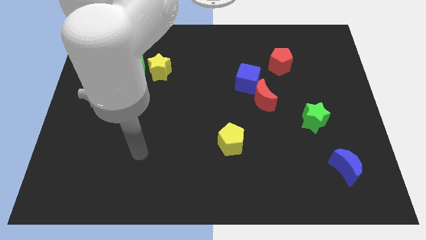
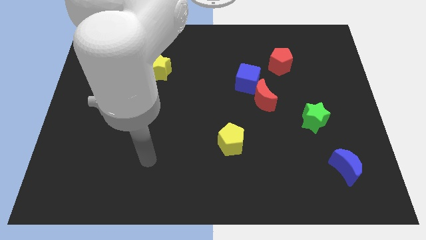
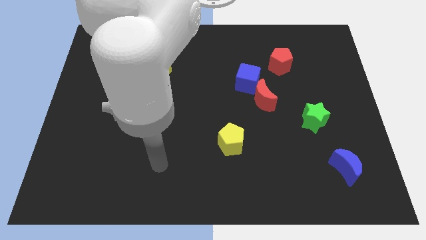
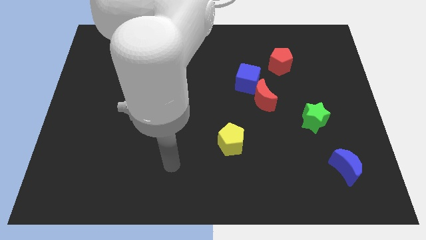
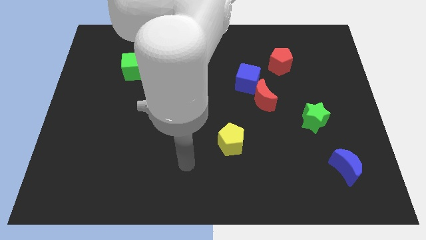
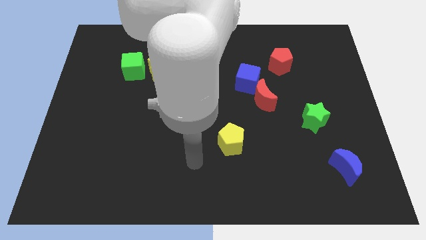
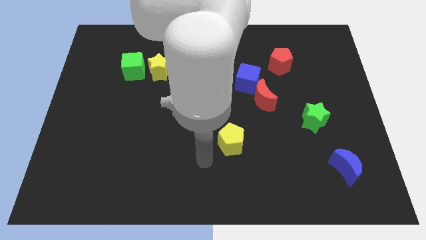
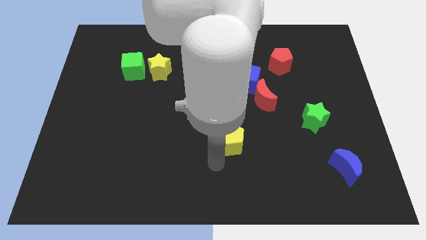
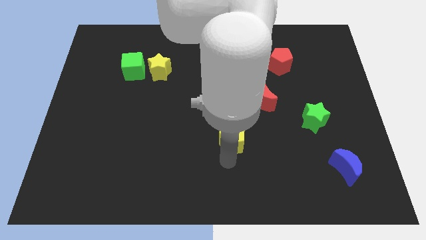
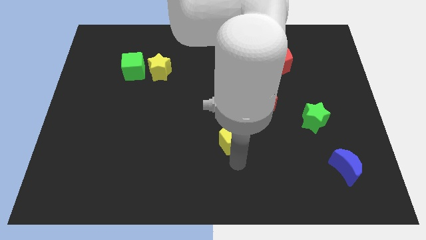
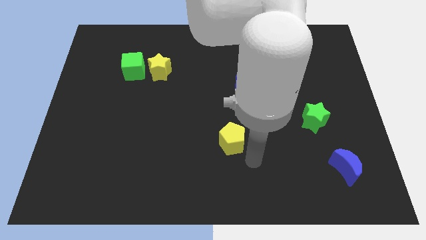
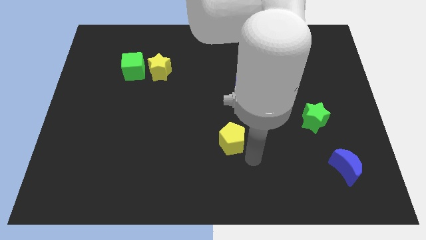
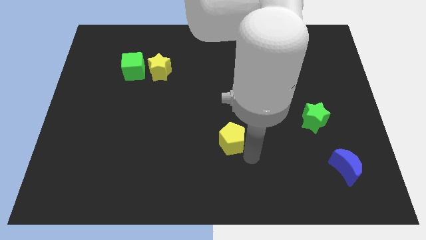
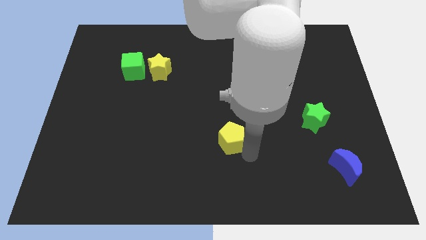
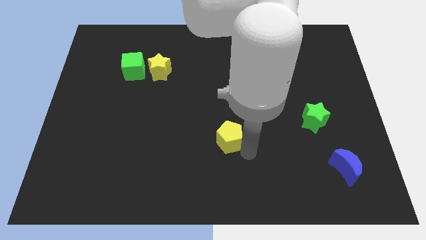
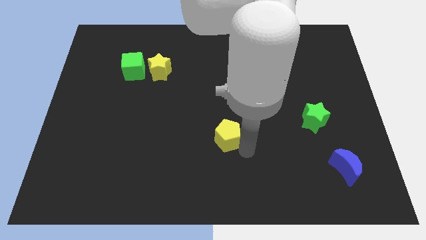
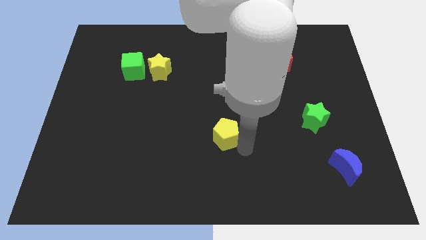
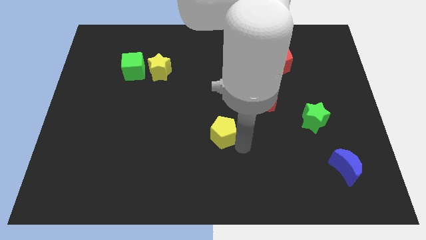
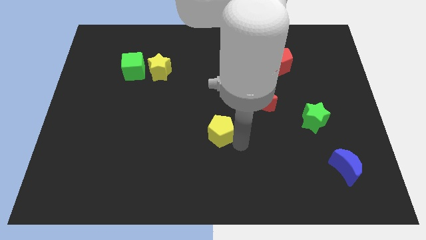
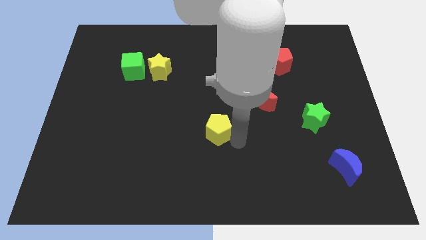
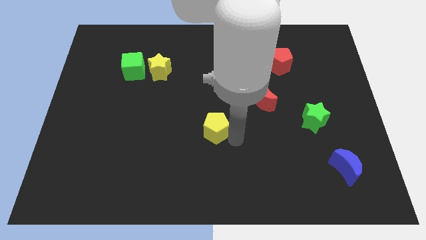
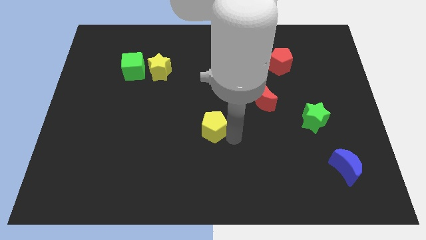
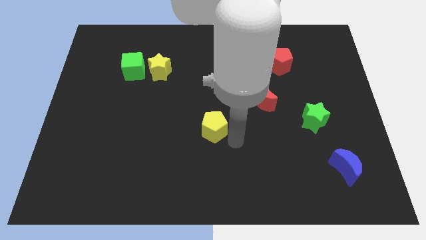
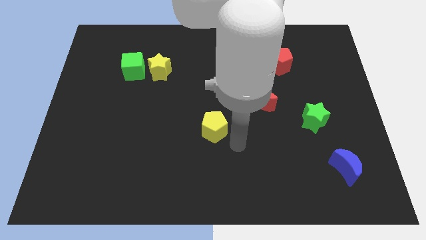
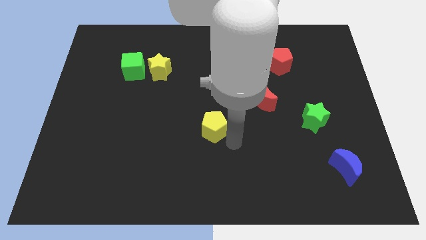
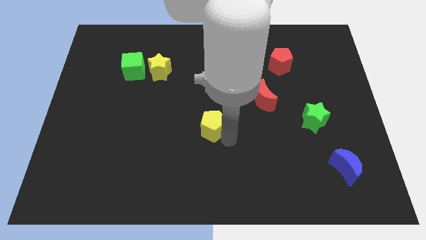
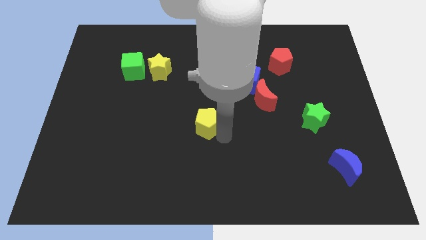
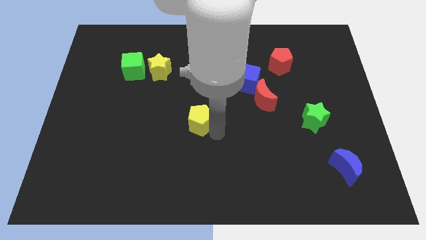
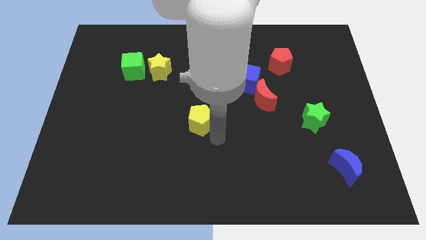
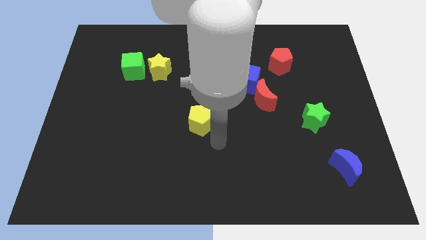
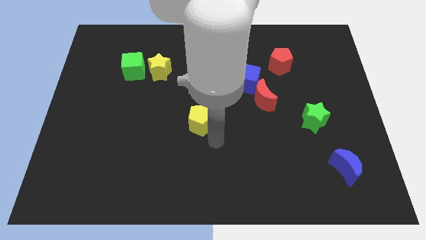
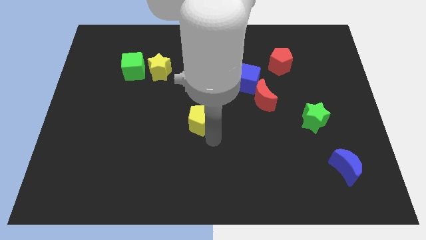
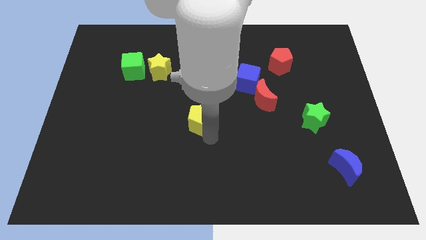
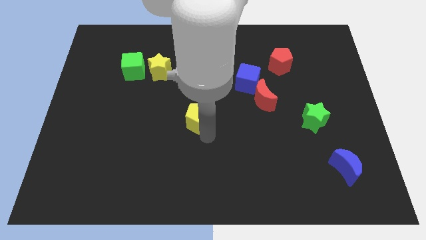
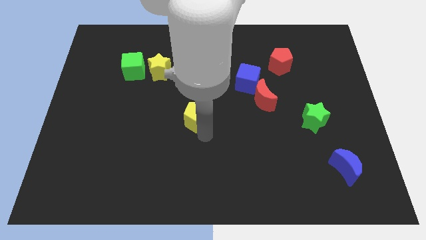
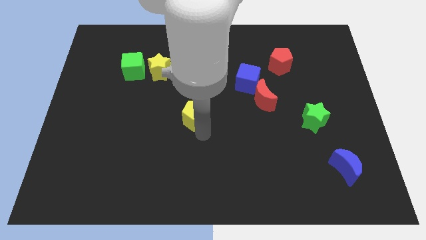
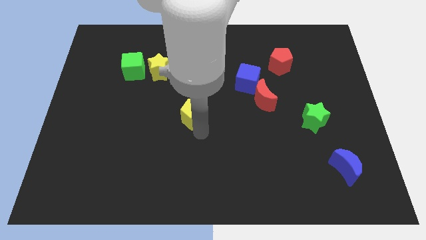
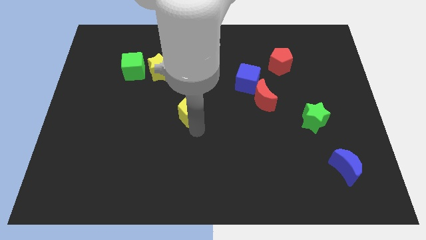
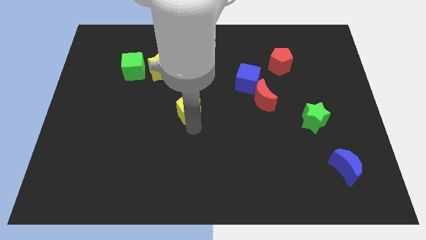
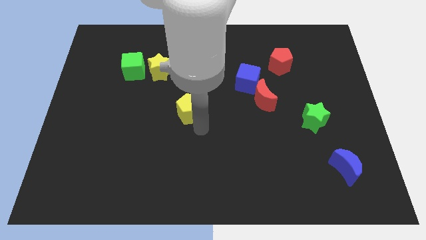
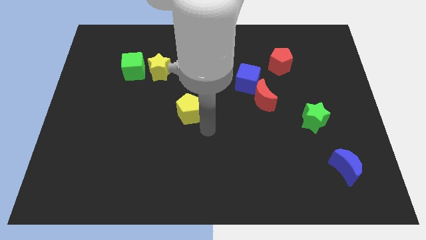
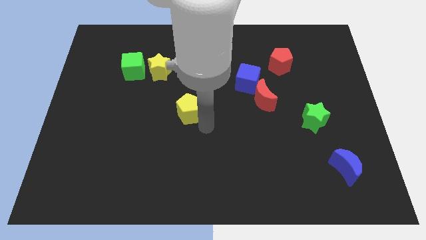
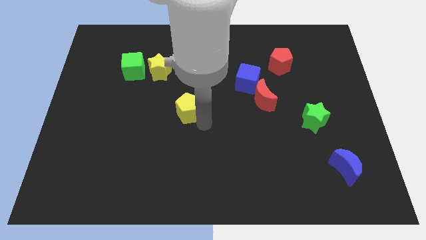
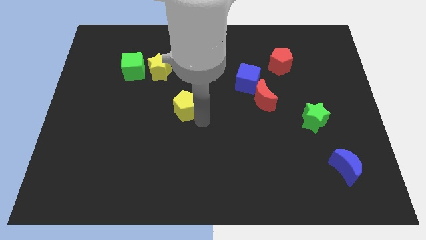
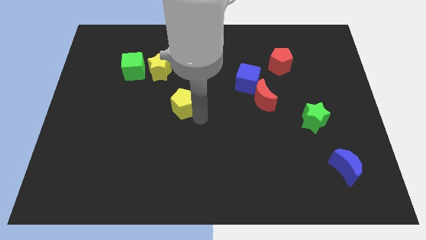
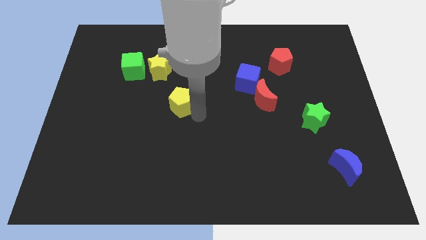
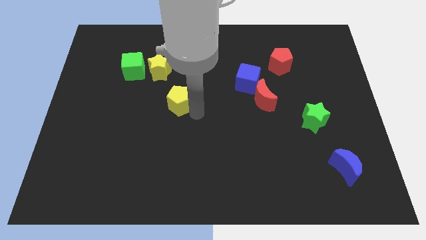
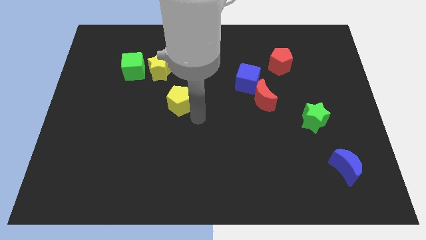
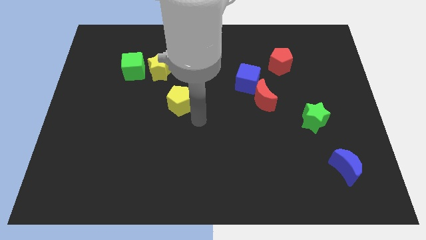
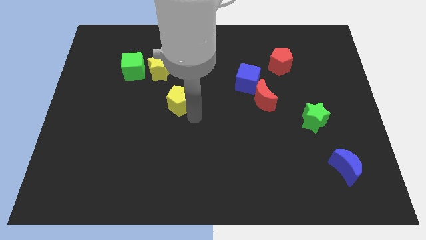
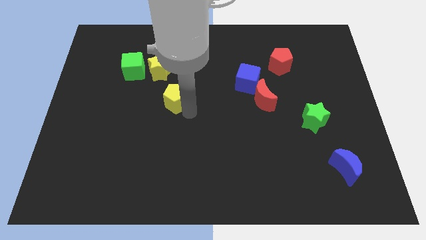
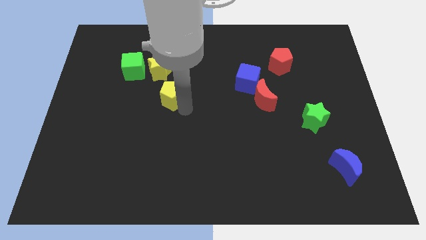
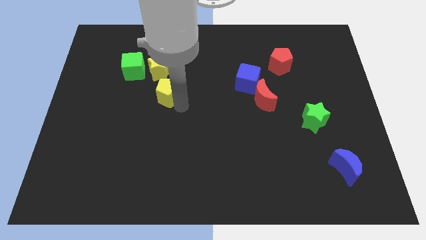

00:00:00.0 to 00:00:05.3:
move the yellow pentagon to the bottom right side of the green cube

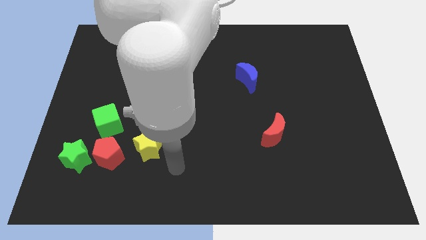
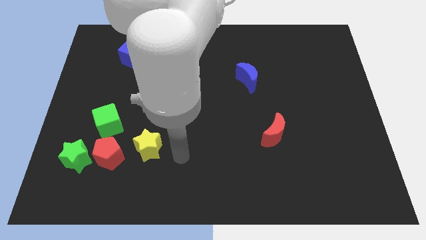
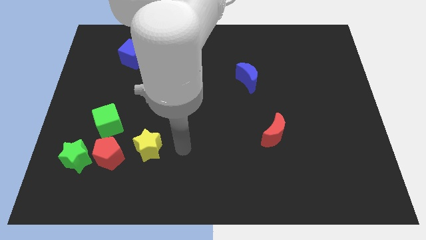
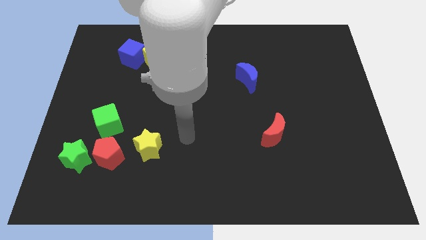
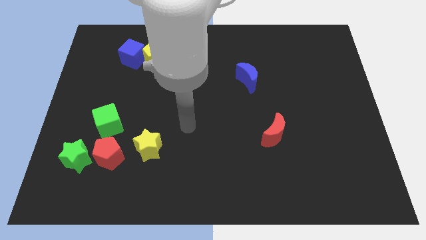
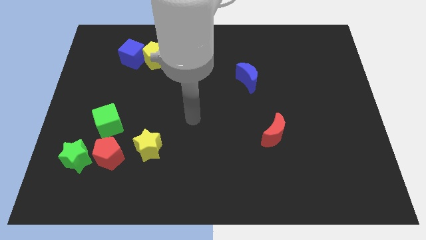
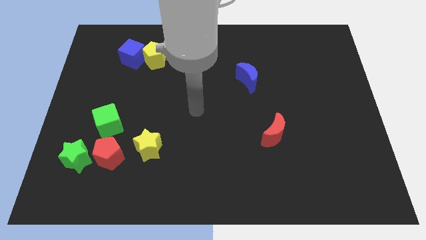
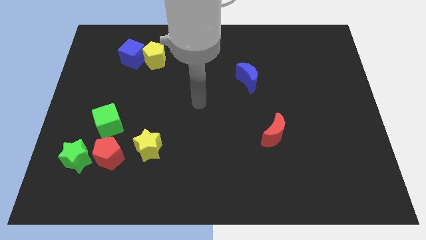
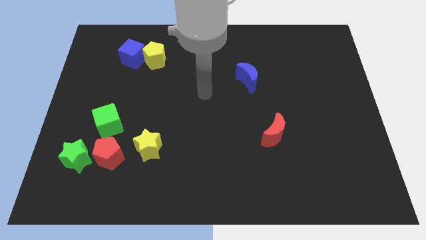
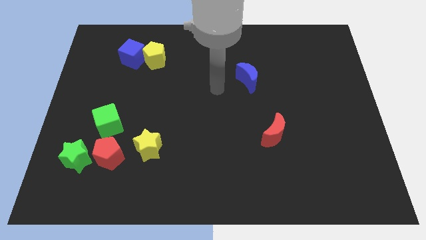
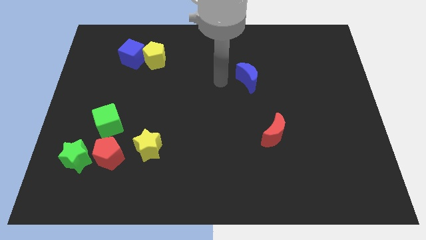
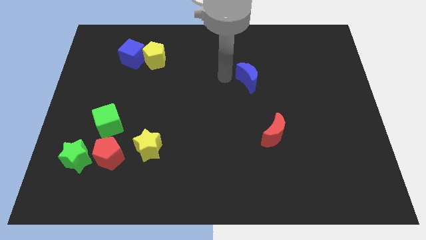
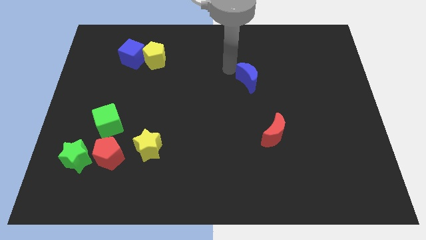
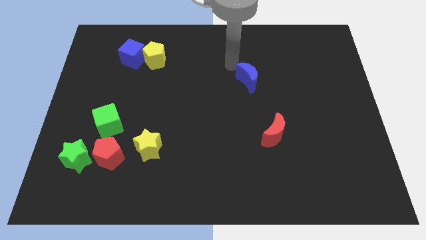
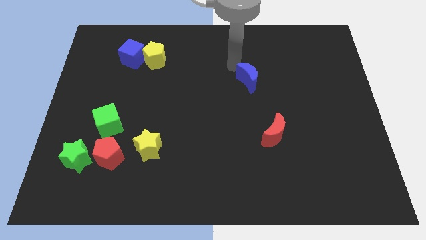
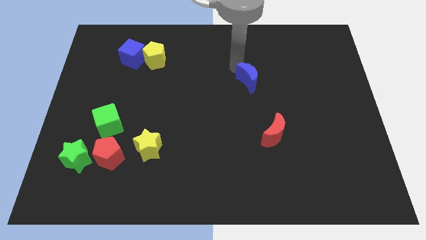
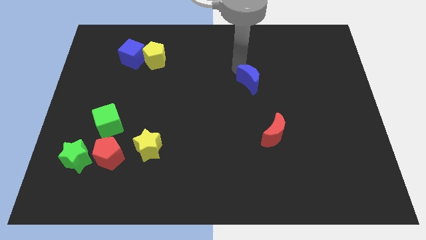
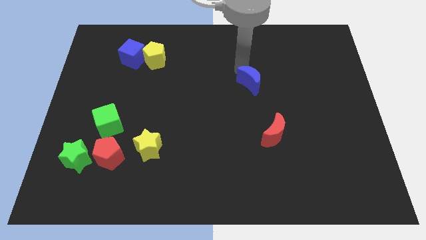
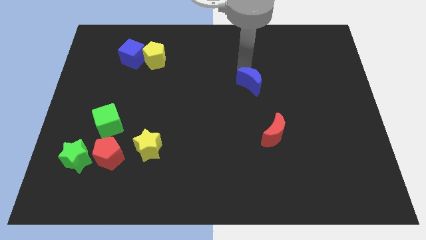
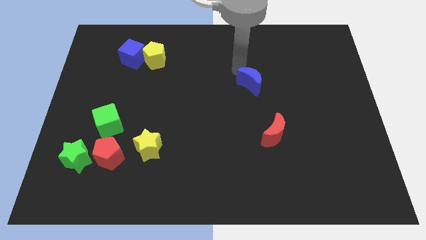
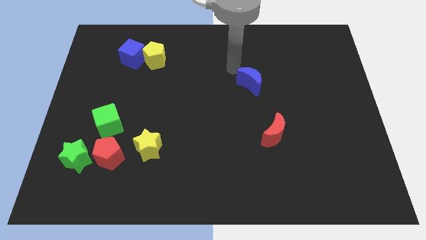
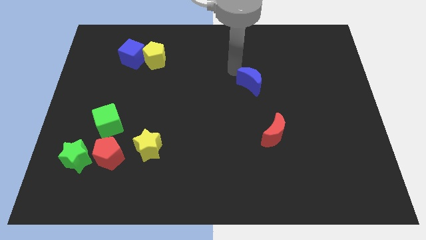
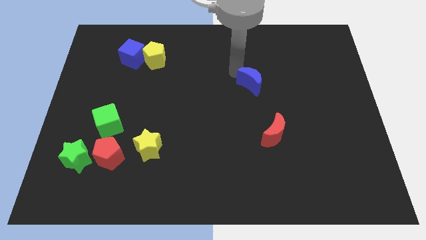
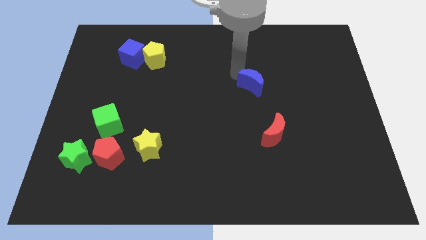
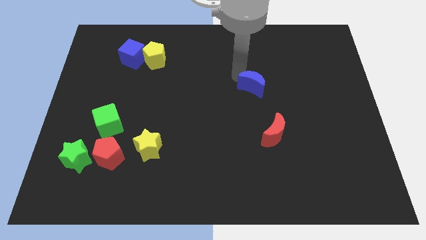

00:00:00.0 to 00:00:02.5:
move the blue moon to the top side of the red moon
